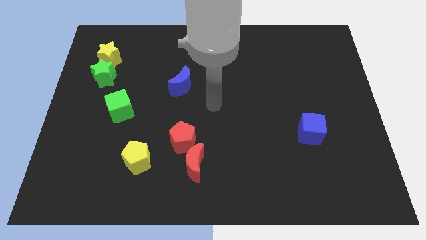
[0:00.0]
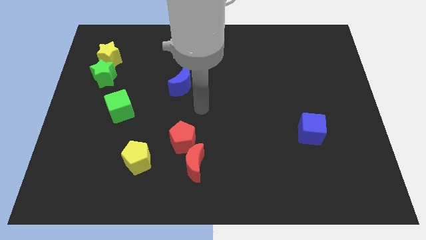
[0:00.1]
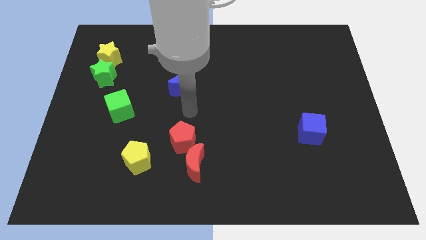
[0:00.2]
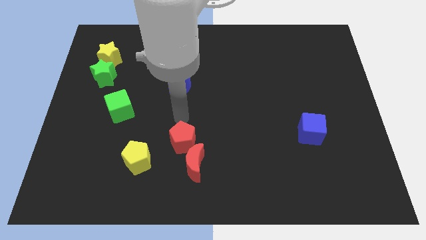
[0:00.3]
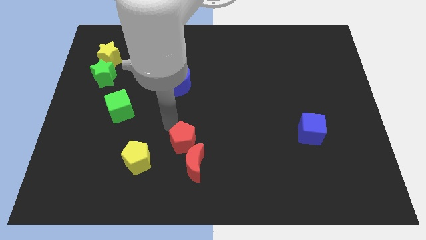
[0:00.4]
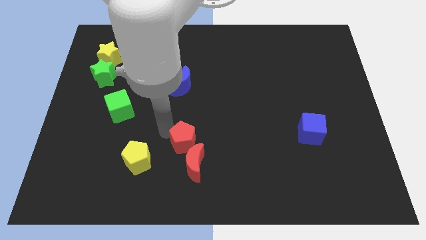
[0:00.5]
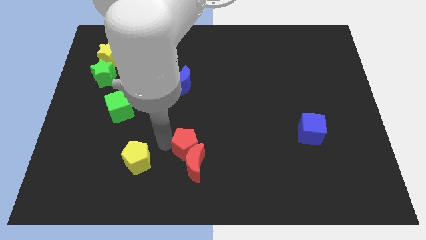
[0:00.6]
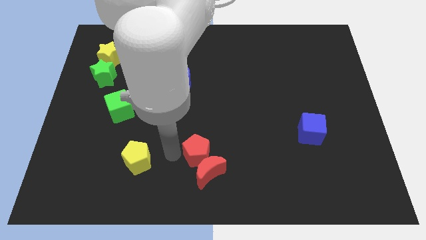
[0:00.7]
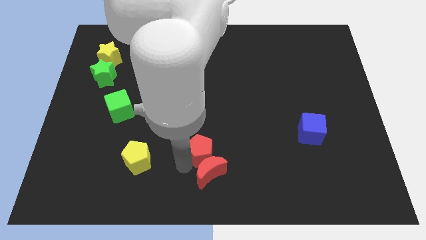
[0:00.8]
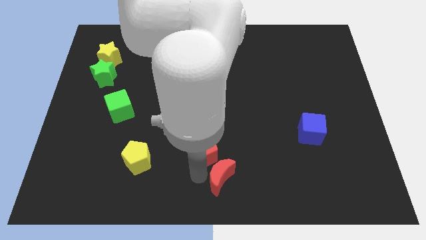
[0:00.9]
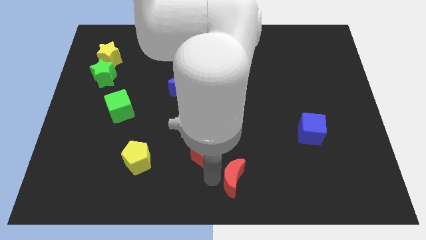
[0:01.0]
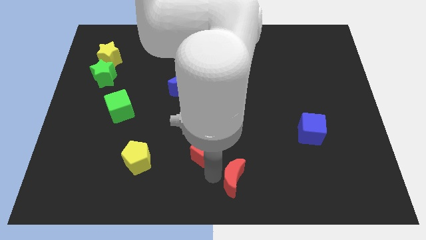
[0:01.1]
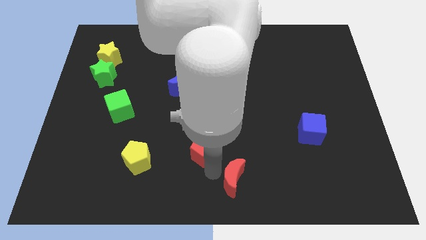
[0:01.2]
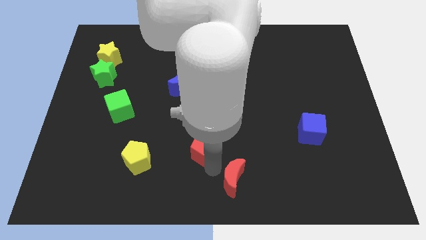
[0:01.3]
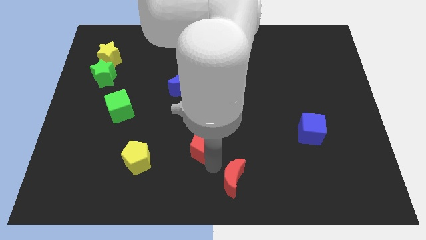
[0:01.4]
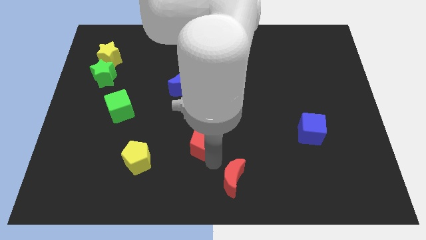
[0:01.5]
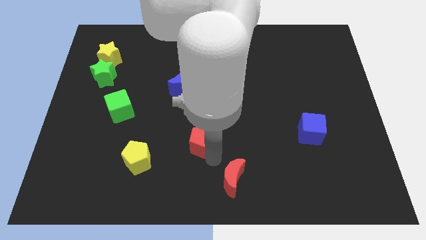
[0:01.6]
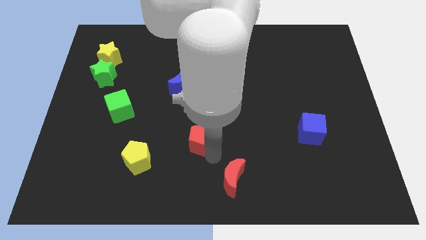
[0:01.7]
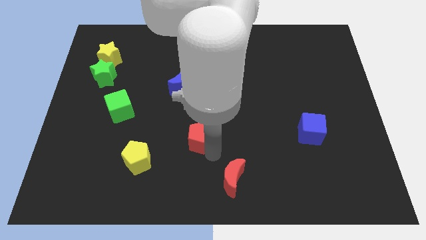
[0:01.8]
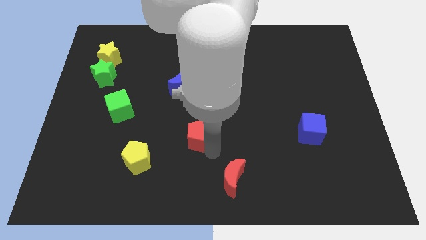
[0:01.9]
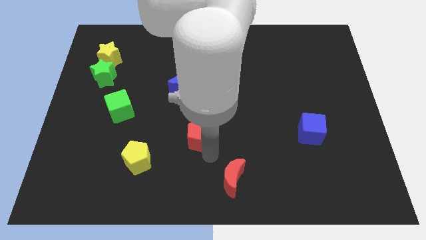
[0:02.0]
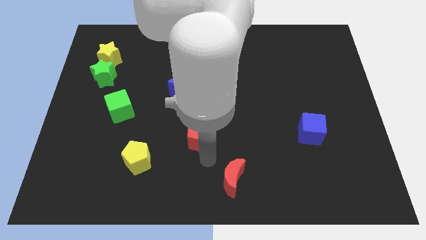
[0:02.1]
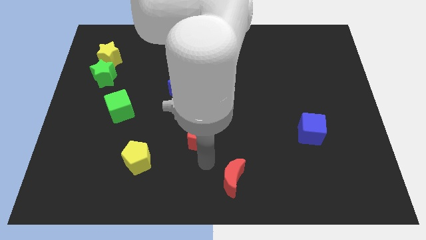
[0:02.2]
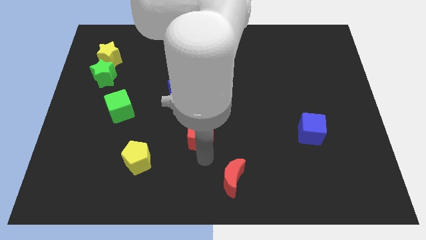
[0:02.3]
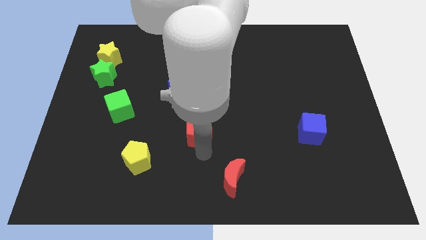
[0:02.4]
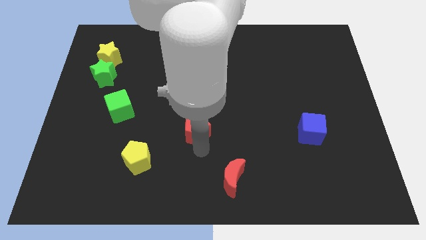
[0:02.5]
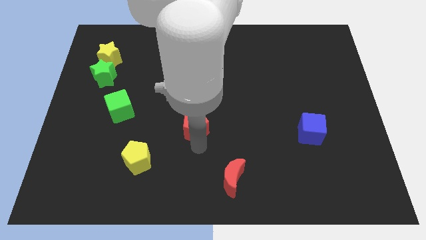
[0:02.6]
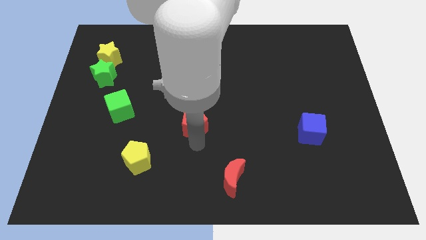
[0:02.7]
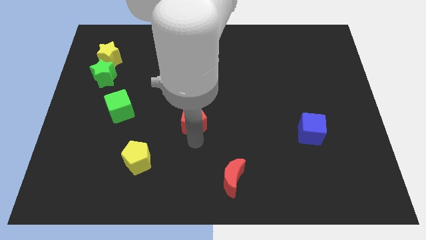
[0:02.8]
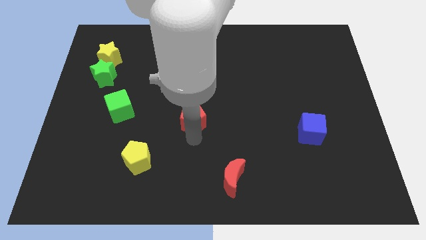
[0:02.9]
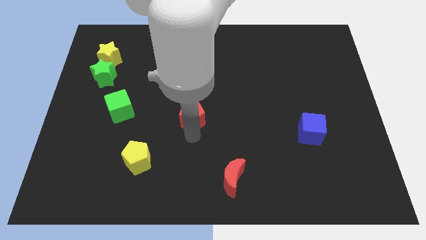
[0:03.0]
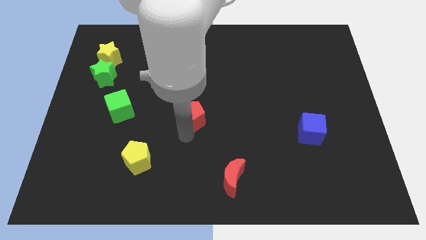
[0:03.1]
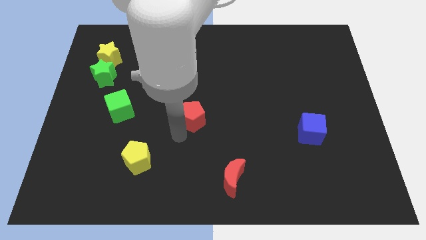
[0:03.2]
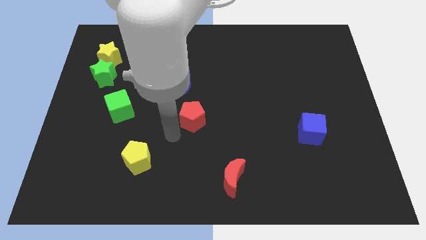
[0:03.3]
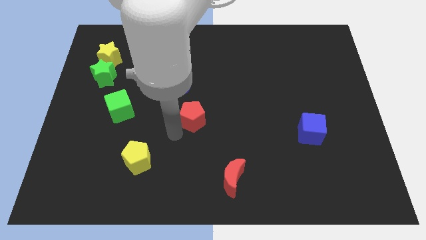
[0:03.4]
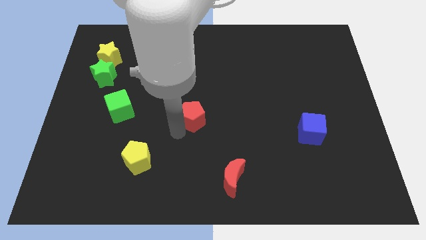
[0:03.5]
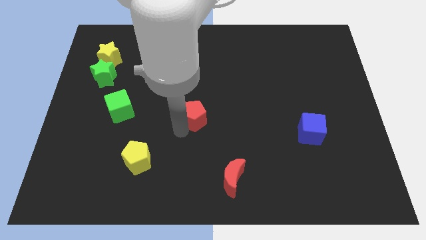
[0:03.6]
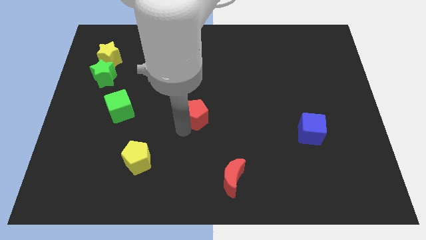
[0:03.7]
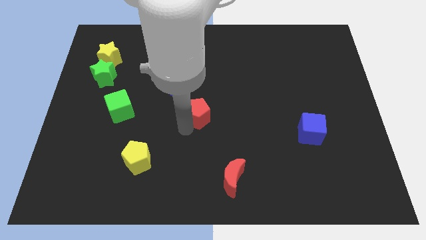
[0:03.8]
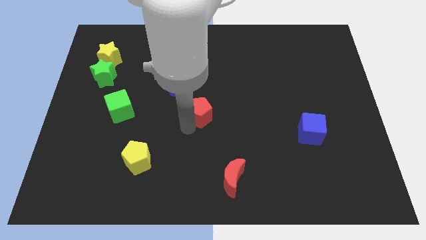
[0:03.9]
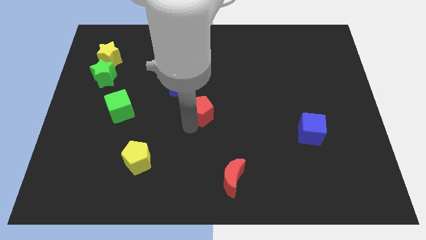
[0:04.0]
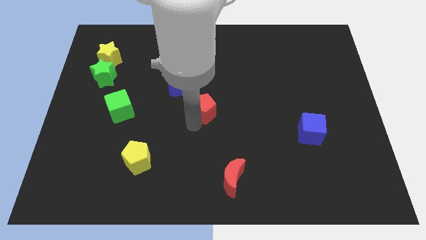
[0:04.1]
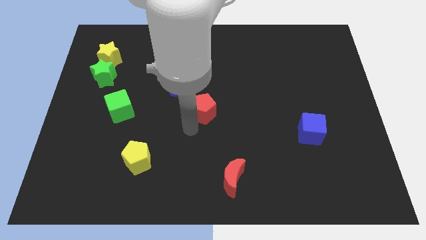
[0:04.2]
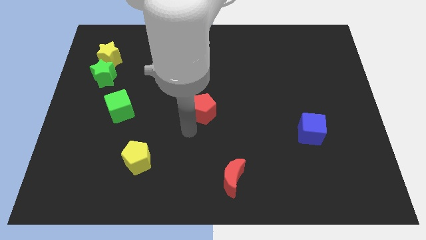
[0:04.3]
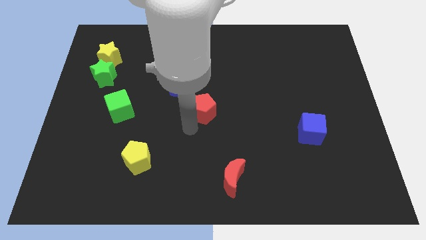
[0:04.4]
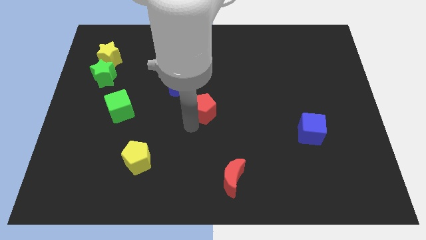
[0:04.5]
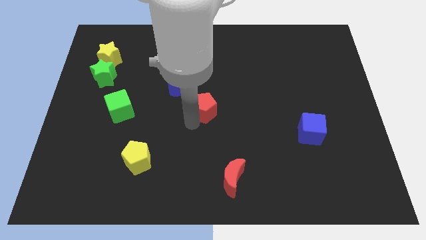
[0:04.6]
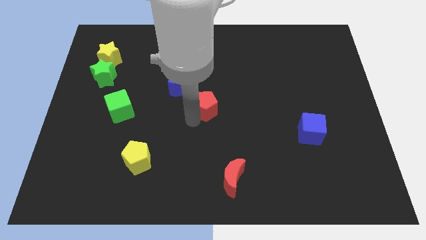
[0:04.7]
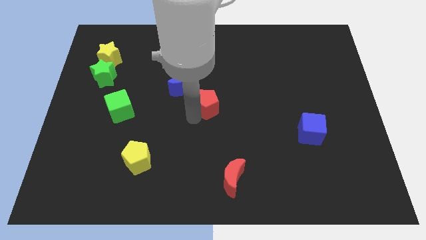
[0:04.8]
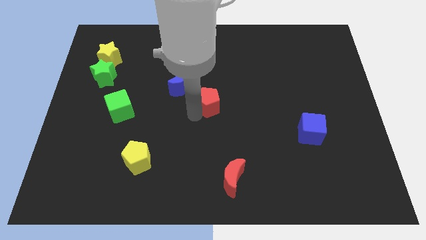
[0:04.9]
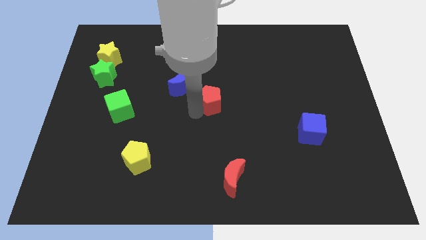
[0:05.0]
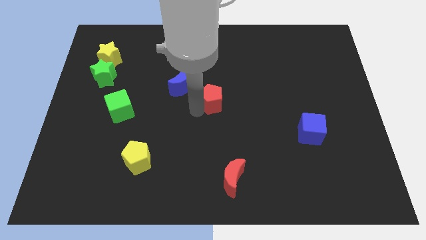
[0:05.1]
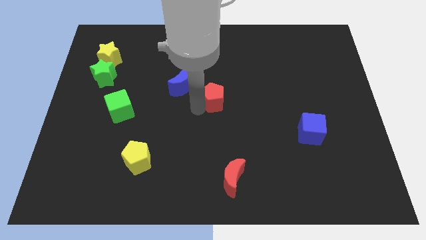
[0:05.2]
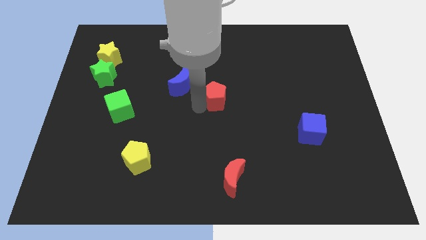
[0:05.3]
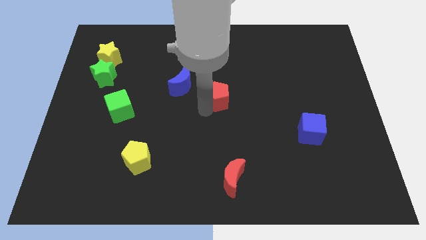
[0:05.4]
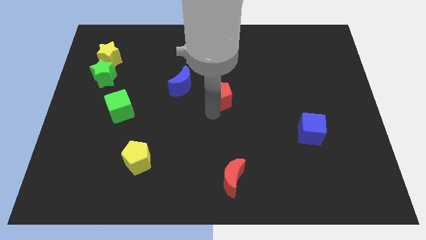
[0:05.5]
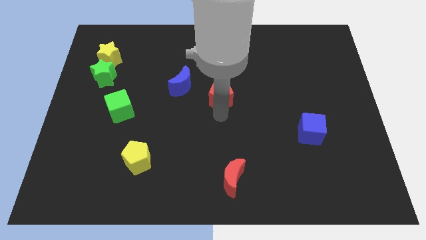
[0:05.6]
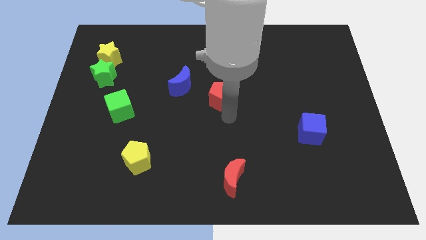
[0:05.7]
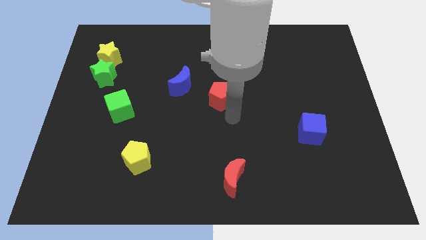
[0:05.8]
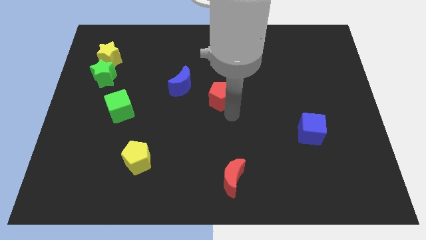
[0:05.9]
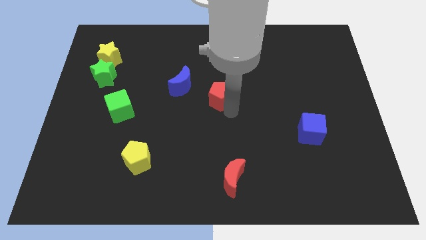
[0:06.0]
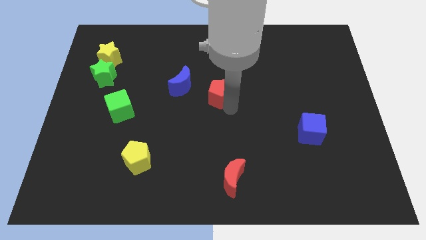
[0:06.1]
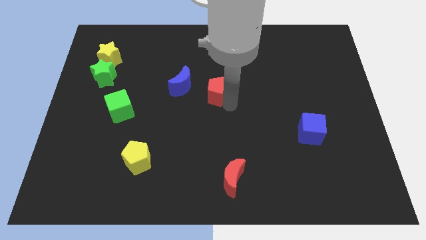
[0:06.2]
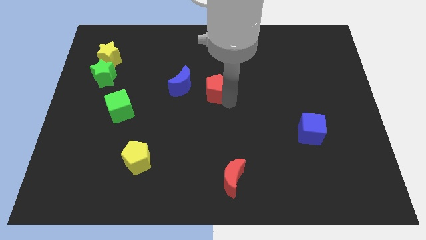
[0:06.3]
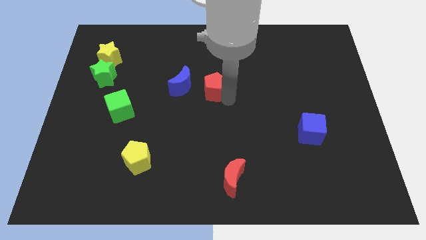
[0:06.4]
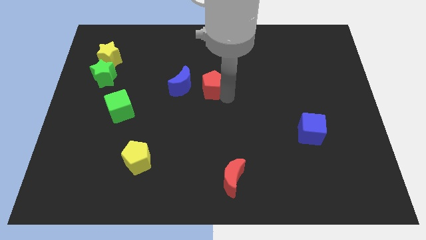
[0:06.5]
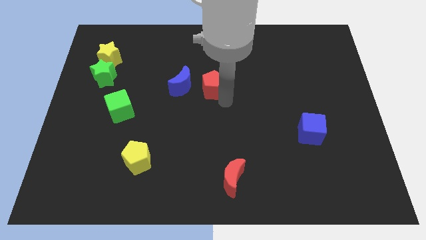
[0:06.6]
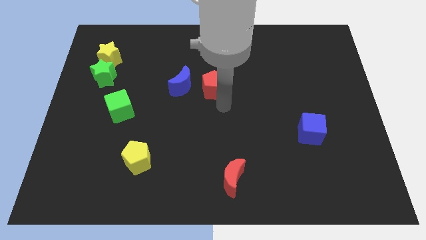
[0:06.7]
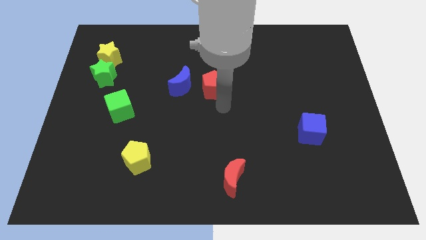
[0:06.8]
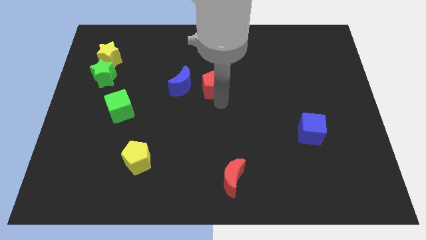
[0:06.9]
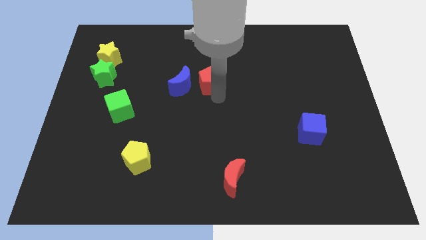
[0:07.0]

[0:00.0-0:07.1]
slide the red pentagon to the top right side of the blue moon
